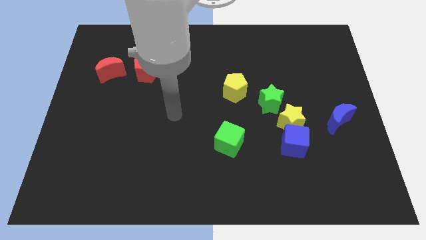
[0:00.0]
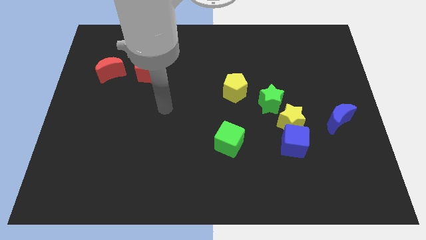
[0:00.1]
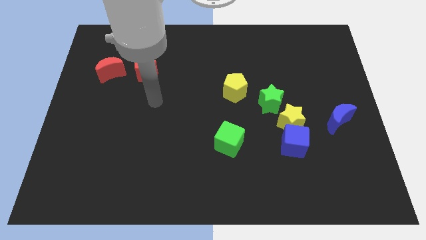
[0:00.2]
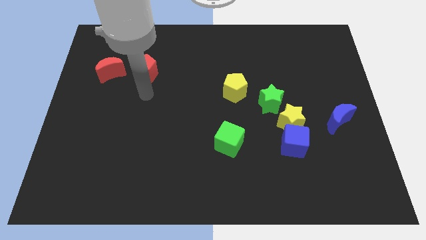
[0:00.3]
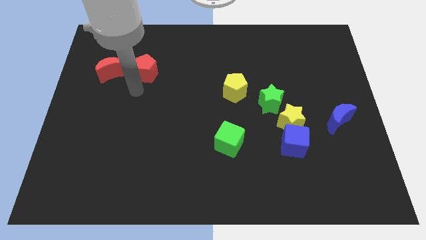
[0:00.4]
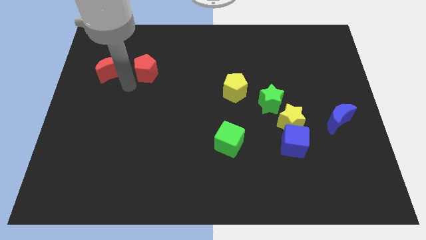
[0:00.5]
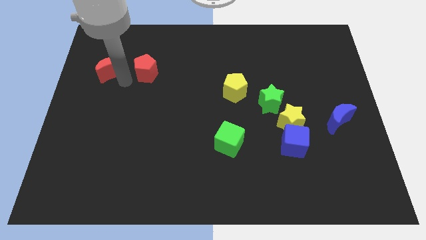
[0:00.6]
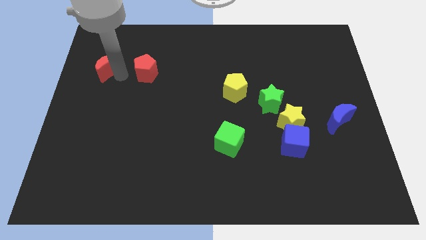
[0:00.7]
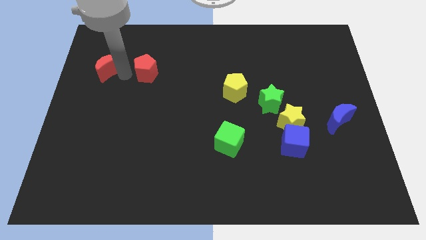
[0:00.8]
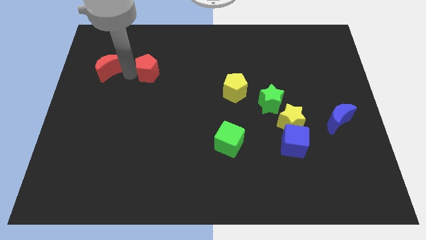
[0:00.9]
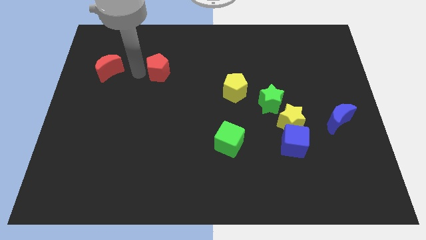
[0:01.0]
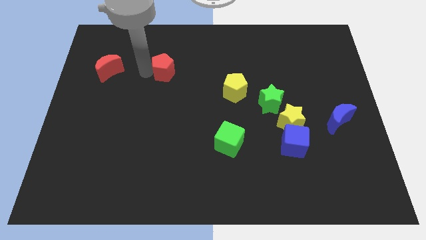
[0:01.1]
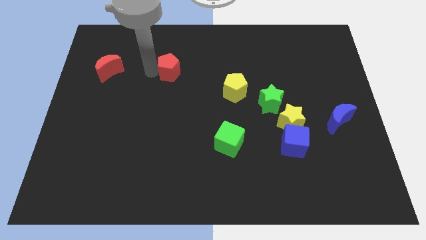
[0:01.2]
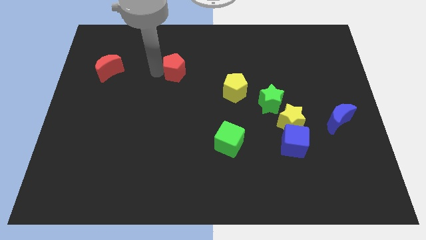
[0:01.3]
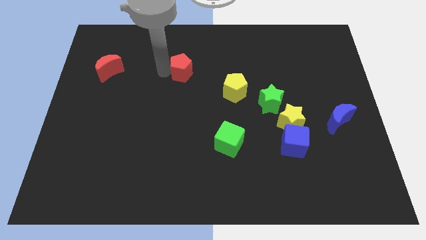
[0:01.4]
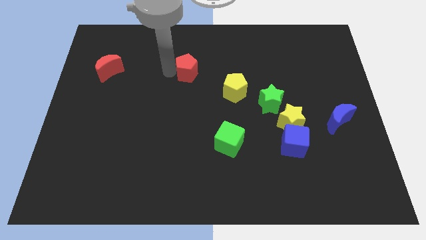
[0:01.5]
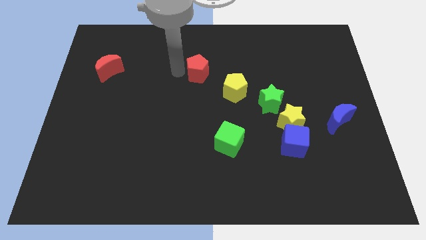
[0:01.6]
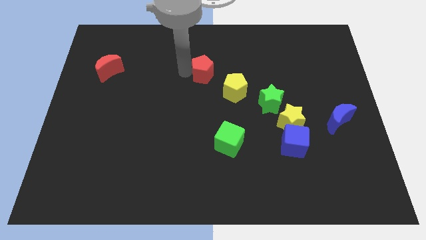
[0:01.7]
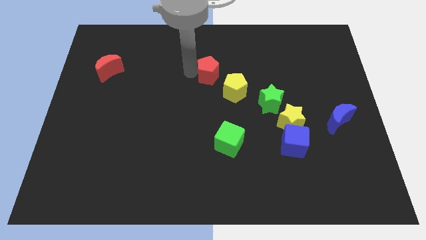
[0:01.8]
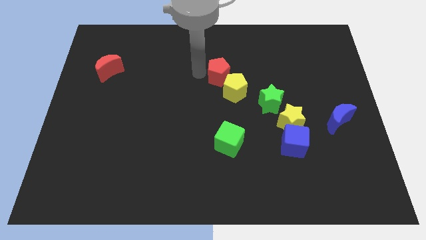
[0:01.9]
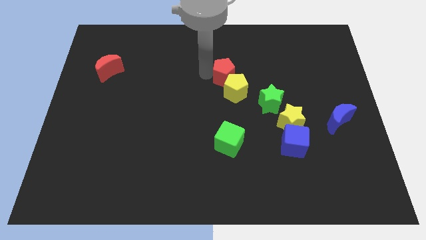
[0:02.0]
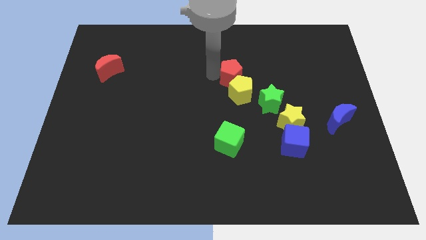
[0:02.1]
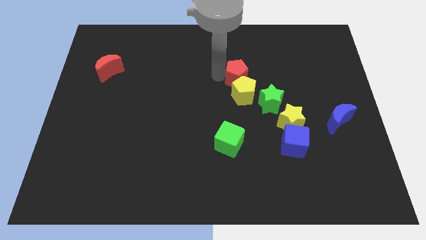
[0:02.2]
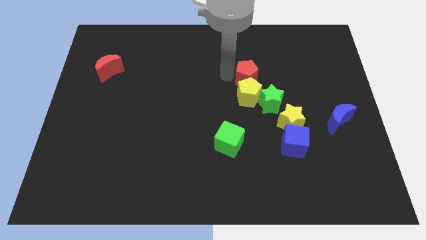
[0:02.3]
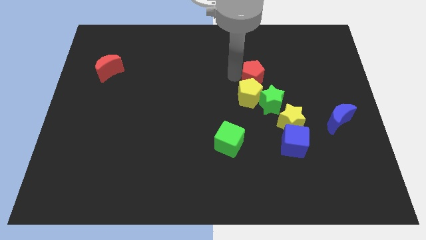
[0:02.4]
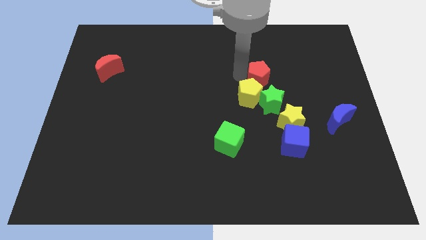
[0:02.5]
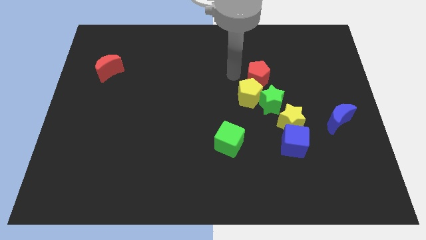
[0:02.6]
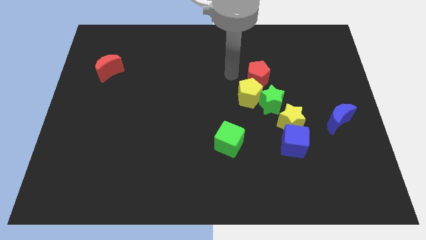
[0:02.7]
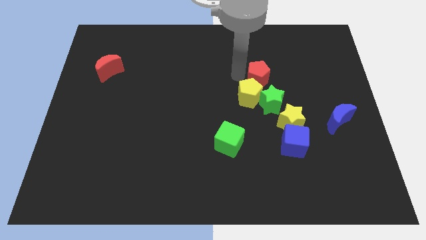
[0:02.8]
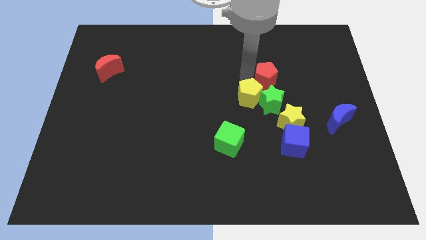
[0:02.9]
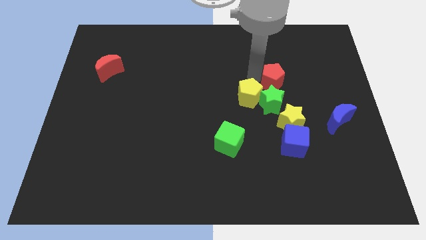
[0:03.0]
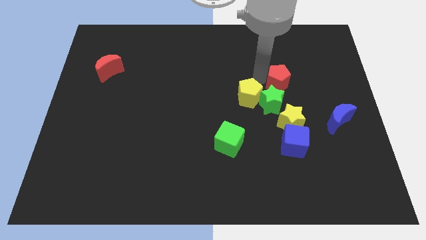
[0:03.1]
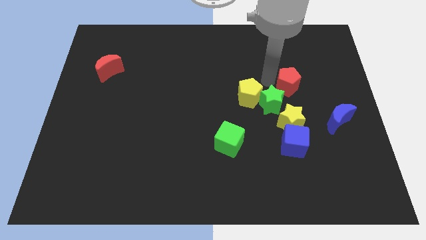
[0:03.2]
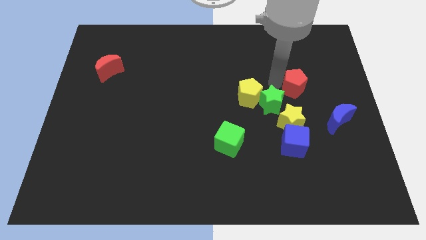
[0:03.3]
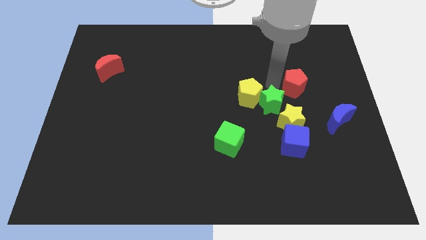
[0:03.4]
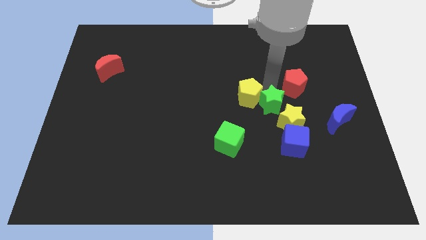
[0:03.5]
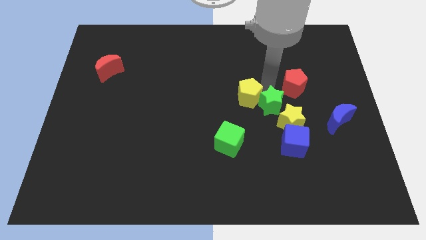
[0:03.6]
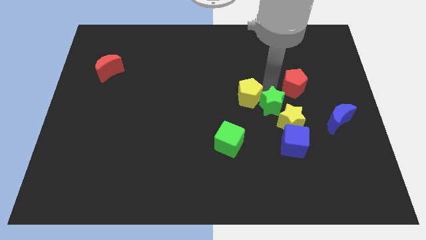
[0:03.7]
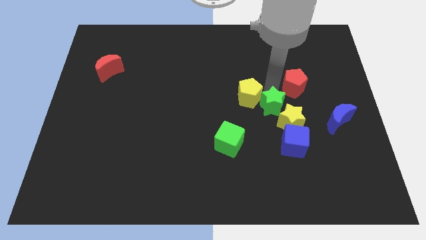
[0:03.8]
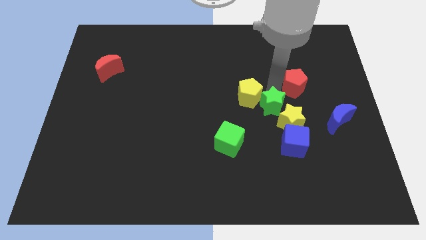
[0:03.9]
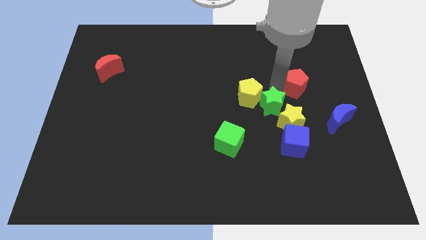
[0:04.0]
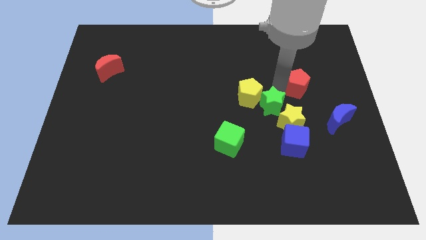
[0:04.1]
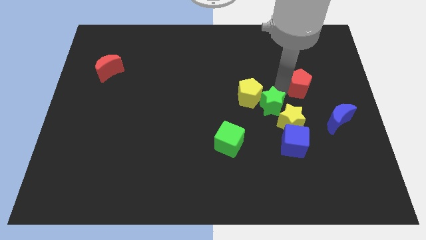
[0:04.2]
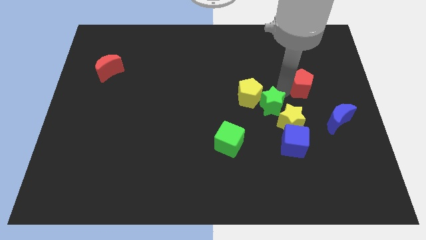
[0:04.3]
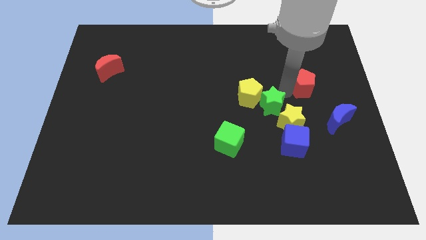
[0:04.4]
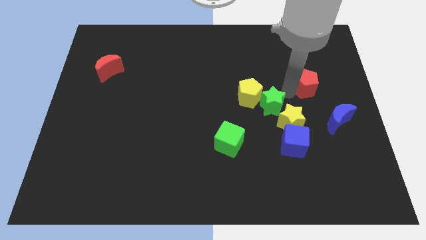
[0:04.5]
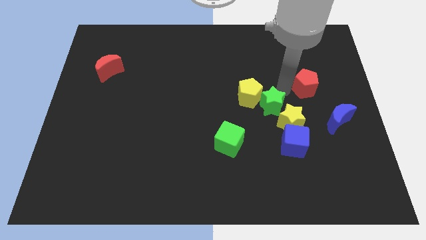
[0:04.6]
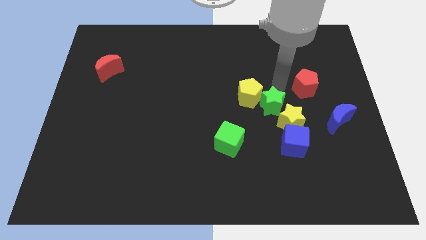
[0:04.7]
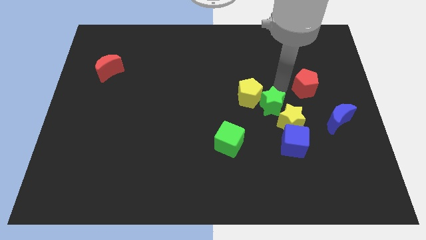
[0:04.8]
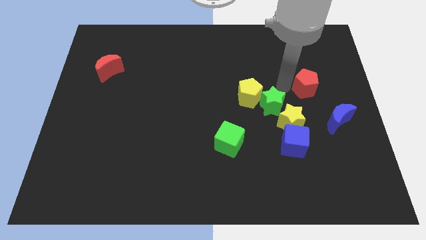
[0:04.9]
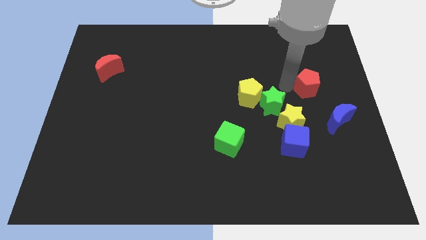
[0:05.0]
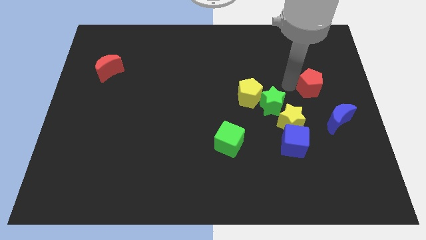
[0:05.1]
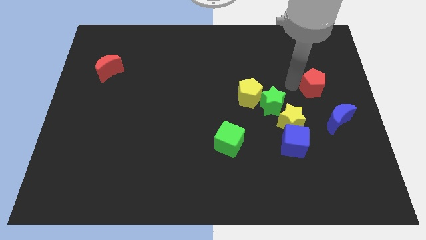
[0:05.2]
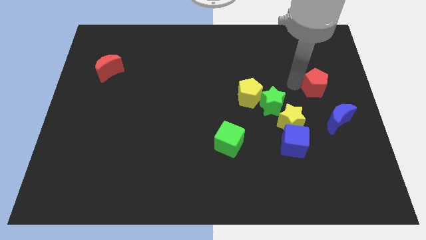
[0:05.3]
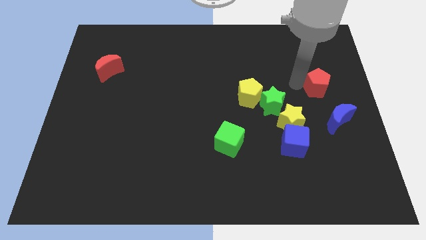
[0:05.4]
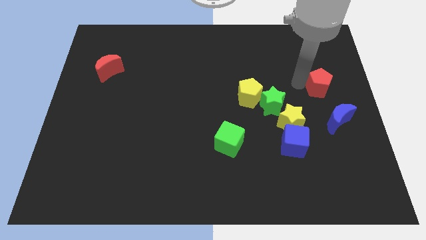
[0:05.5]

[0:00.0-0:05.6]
slide the red pentagon to the right side

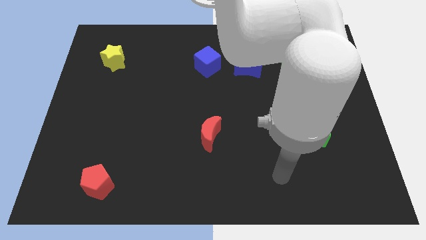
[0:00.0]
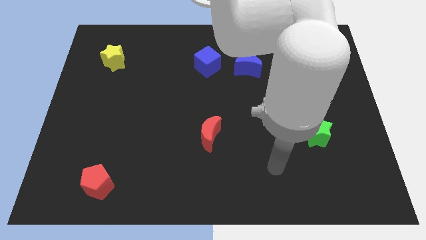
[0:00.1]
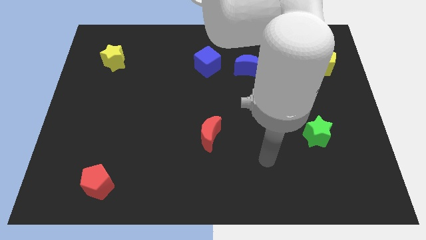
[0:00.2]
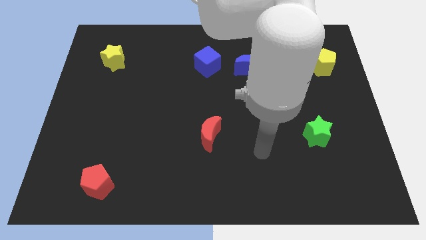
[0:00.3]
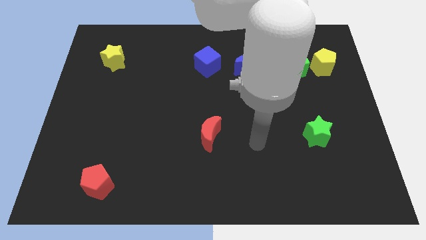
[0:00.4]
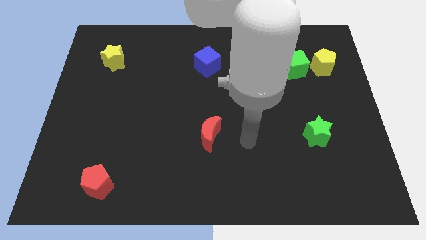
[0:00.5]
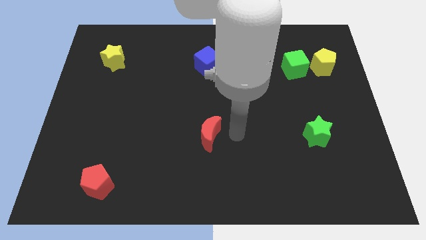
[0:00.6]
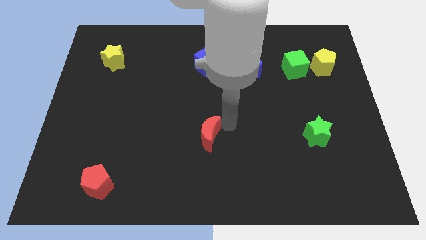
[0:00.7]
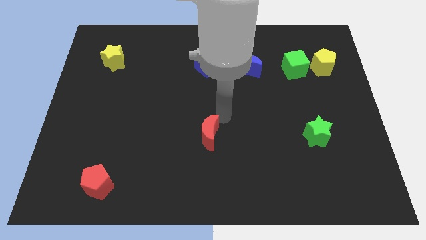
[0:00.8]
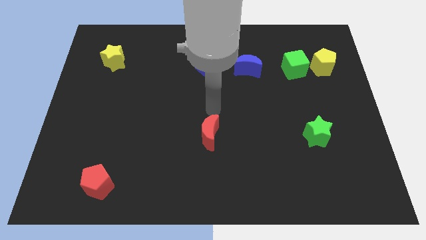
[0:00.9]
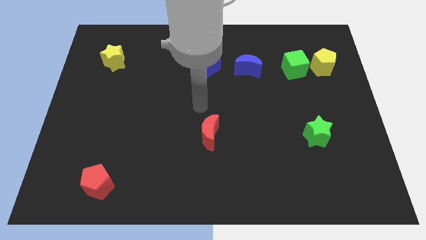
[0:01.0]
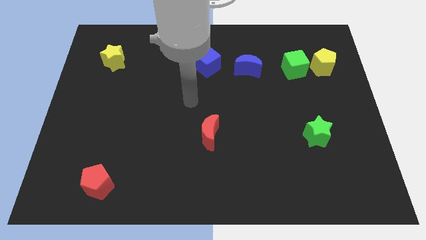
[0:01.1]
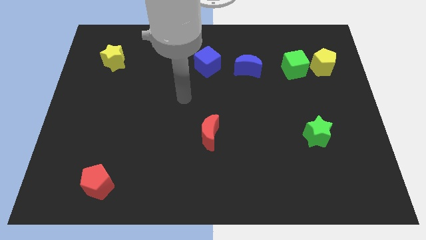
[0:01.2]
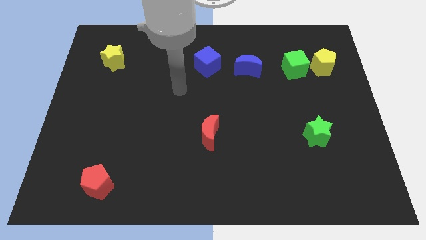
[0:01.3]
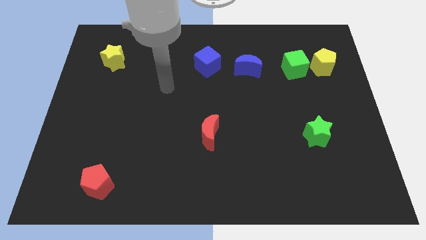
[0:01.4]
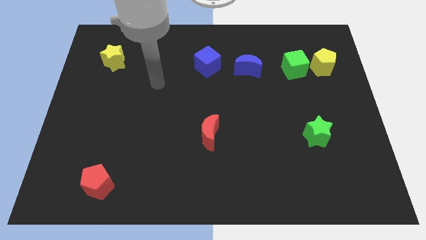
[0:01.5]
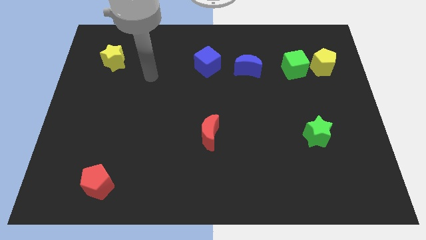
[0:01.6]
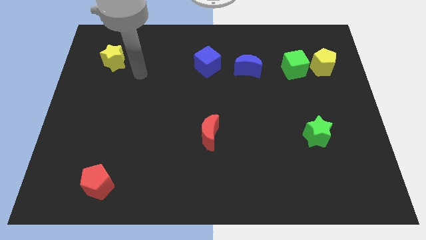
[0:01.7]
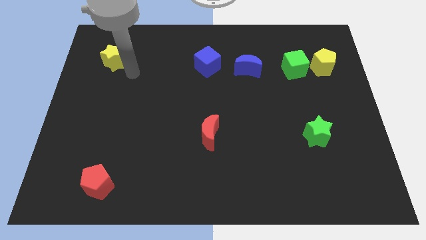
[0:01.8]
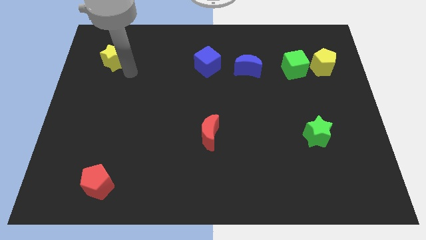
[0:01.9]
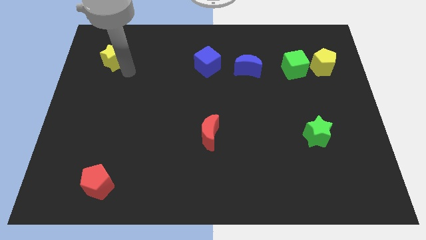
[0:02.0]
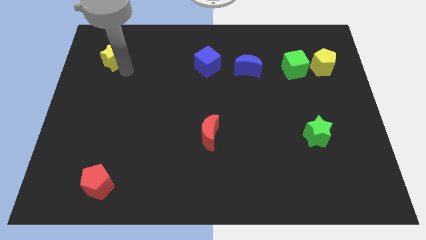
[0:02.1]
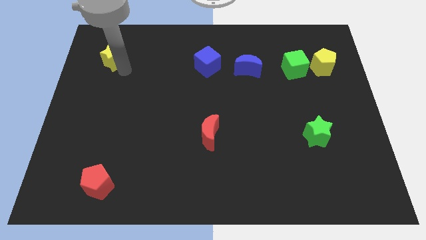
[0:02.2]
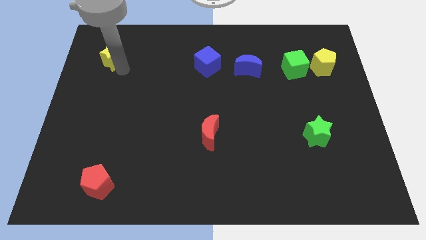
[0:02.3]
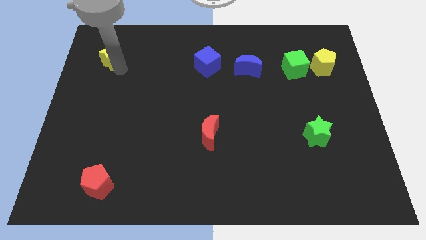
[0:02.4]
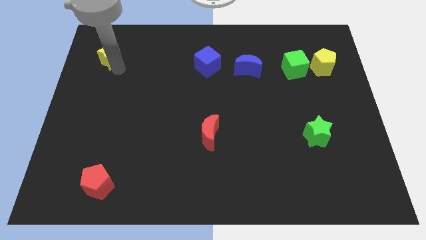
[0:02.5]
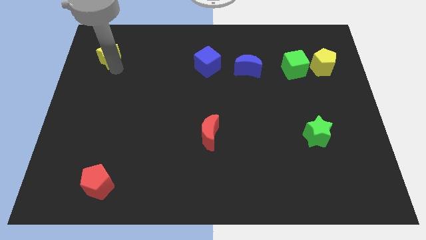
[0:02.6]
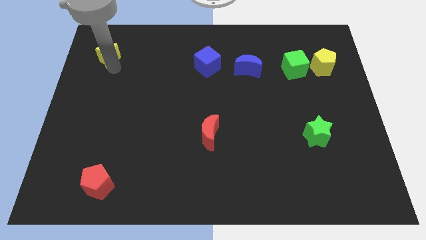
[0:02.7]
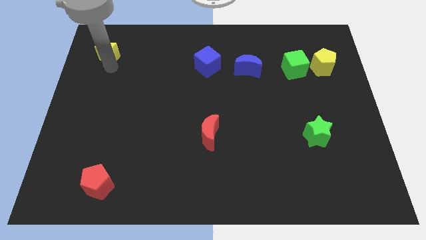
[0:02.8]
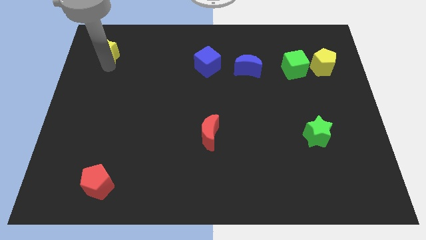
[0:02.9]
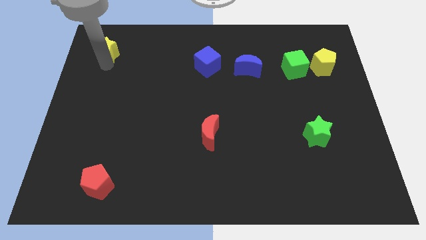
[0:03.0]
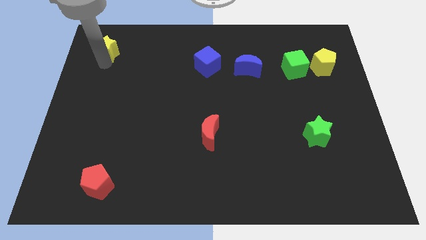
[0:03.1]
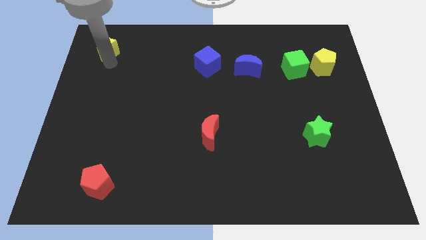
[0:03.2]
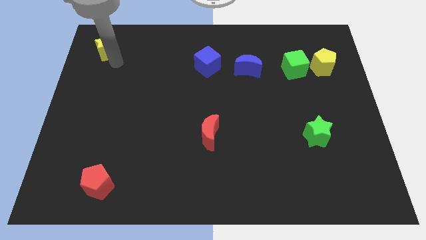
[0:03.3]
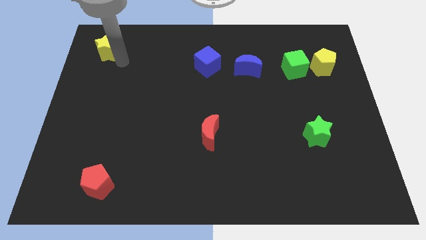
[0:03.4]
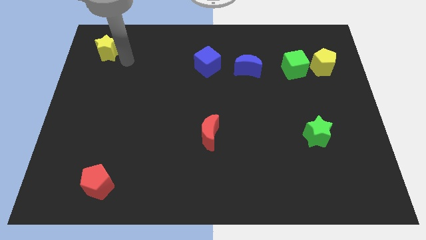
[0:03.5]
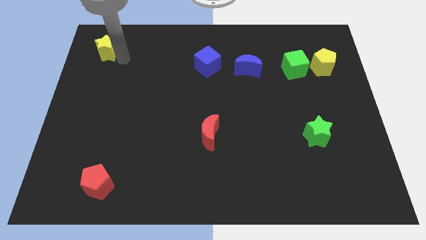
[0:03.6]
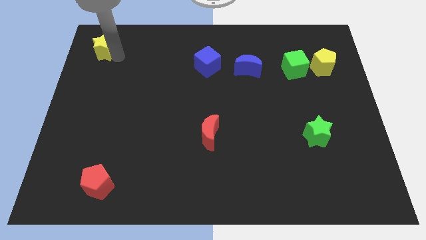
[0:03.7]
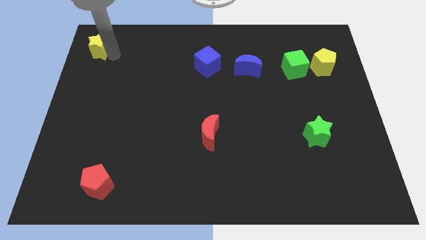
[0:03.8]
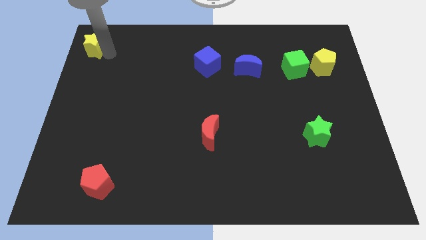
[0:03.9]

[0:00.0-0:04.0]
move the yellow star to the upper left corner
